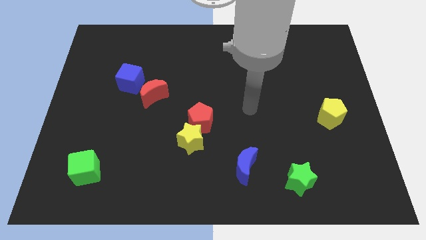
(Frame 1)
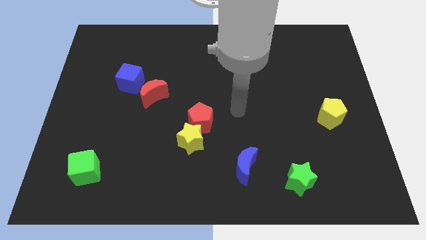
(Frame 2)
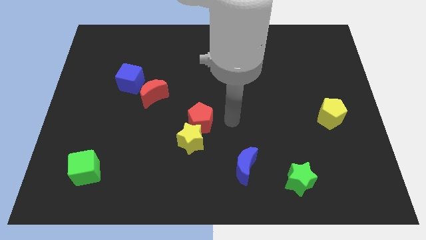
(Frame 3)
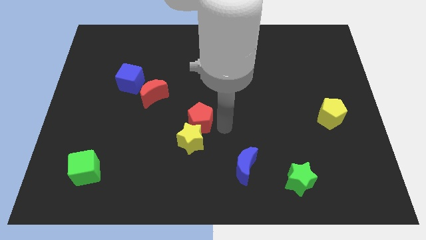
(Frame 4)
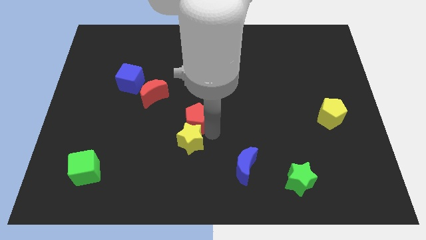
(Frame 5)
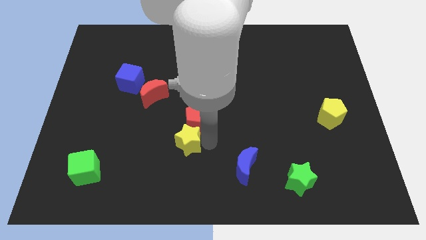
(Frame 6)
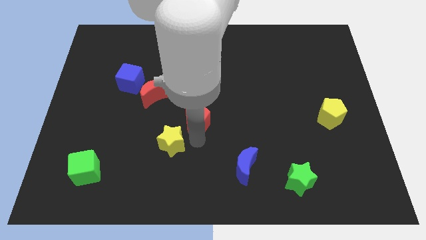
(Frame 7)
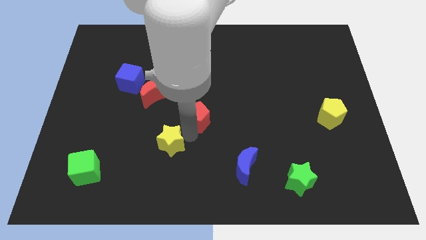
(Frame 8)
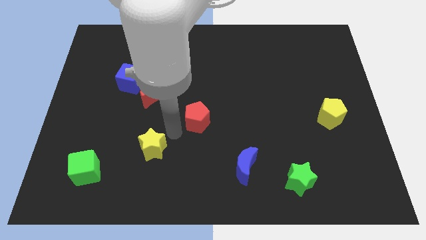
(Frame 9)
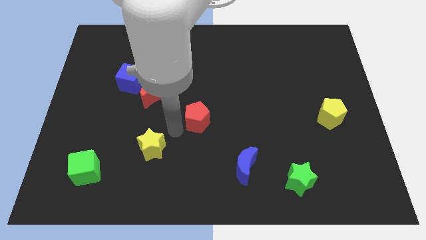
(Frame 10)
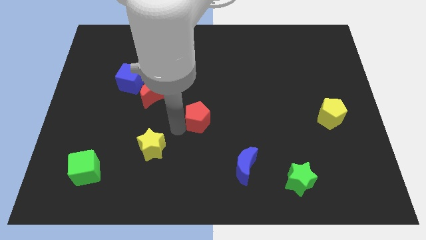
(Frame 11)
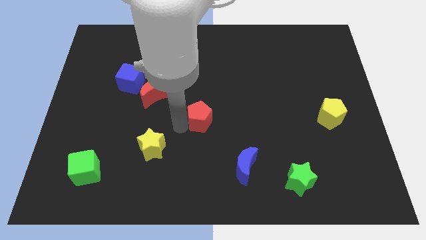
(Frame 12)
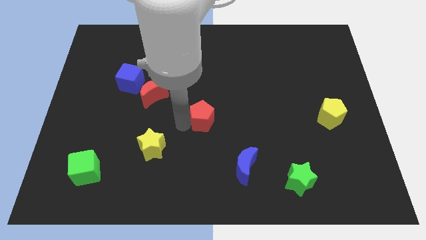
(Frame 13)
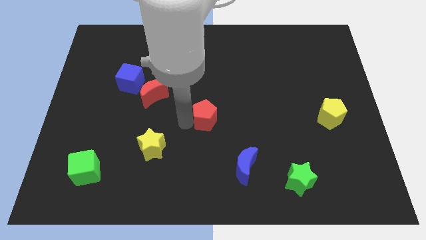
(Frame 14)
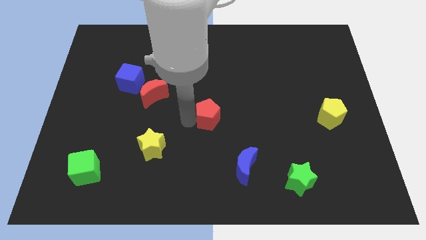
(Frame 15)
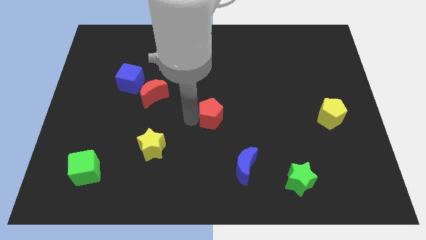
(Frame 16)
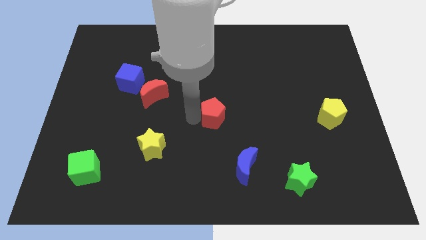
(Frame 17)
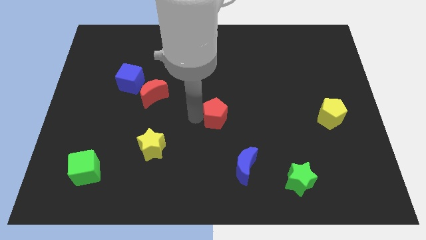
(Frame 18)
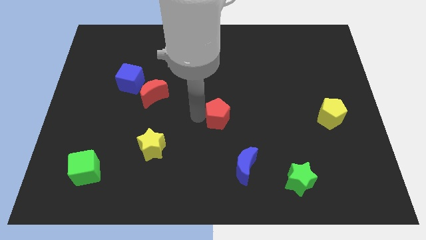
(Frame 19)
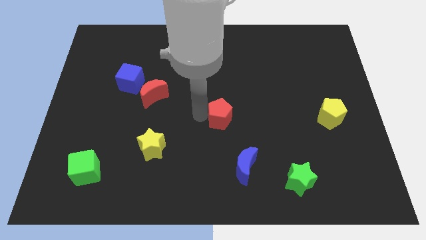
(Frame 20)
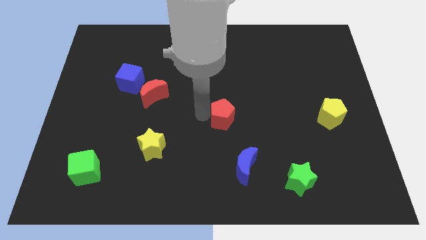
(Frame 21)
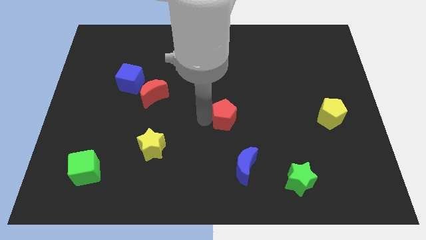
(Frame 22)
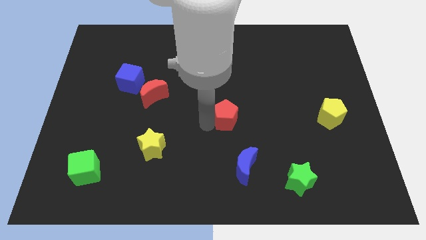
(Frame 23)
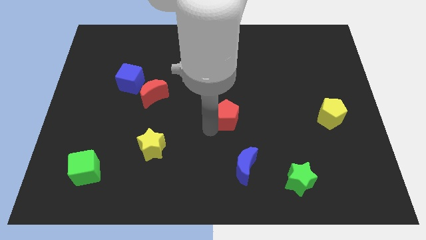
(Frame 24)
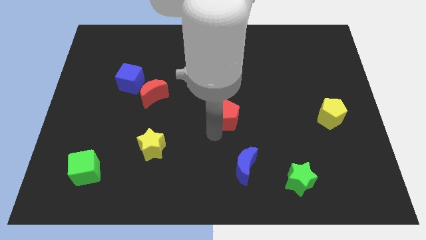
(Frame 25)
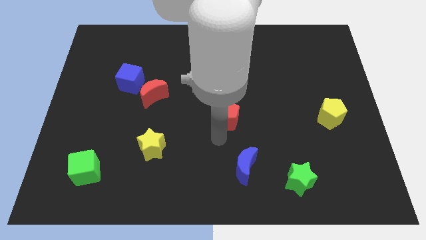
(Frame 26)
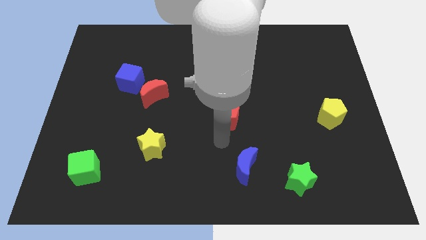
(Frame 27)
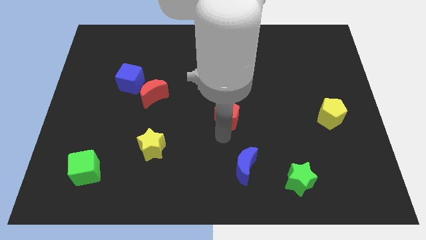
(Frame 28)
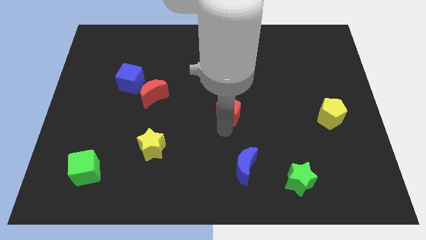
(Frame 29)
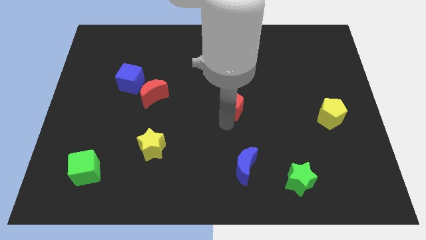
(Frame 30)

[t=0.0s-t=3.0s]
slide the red pentagon upwards and then to the right slightly

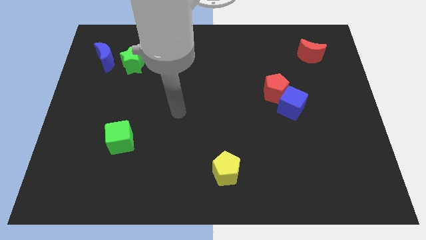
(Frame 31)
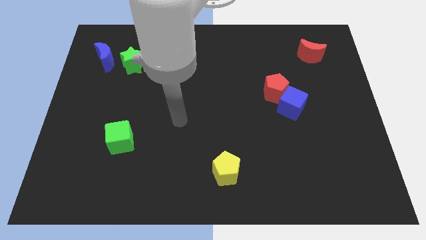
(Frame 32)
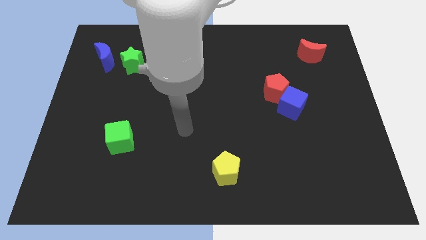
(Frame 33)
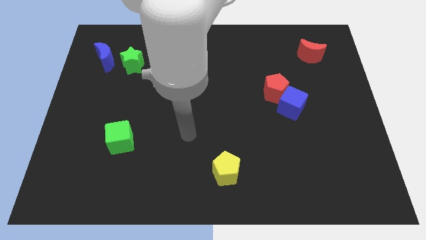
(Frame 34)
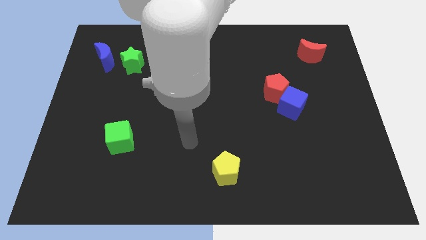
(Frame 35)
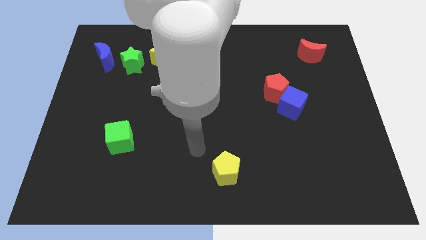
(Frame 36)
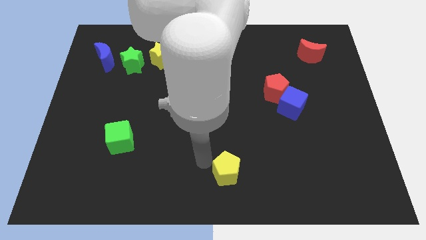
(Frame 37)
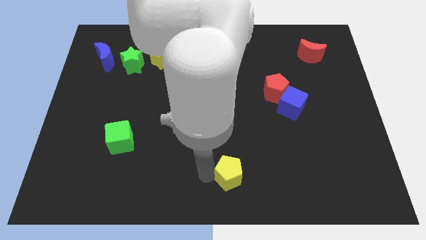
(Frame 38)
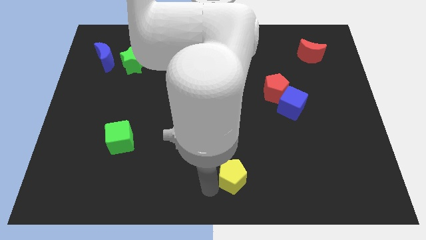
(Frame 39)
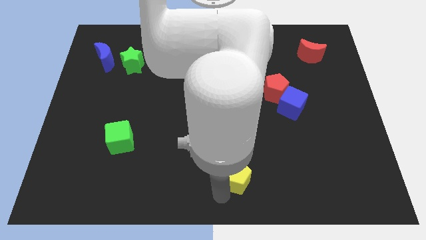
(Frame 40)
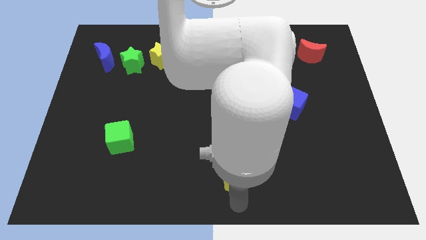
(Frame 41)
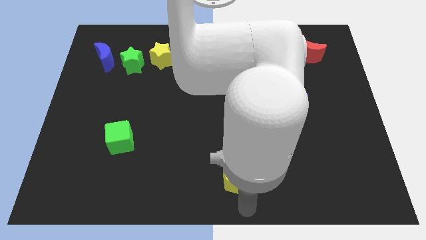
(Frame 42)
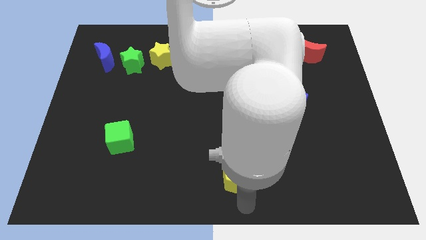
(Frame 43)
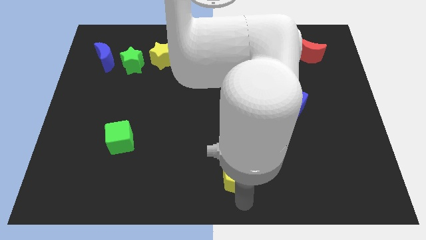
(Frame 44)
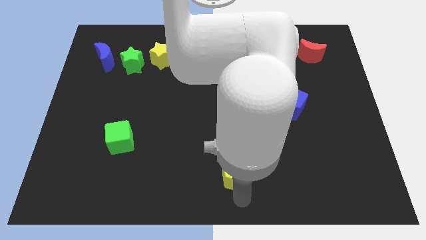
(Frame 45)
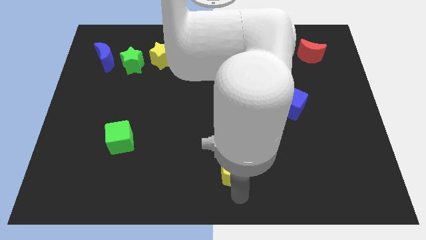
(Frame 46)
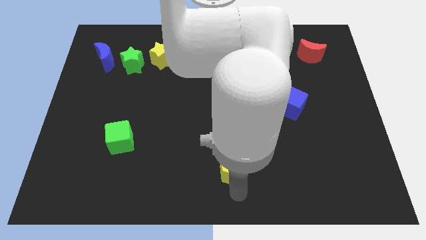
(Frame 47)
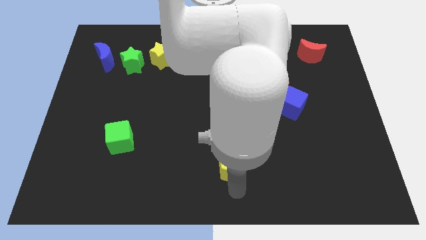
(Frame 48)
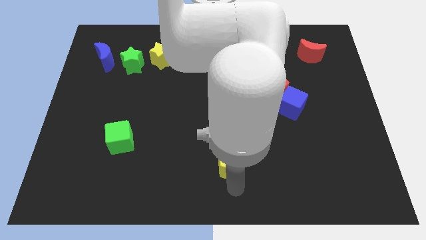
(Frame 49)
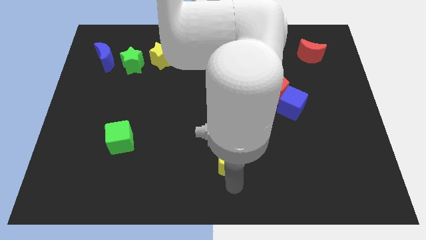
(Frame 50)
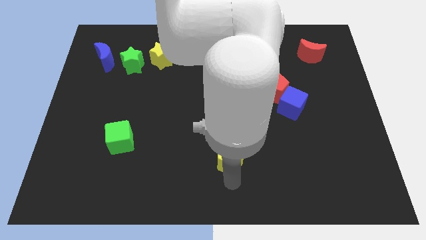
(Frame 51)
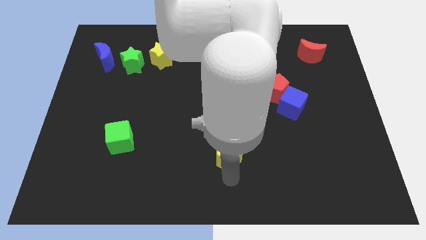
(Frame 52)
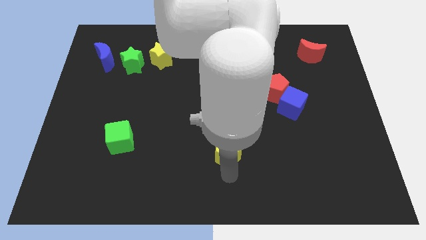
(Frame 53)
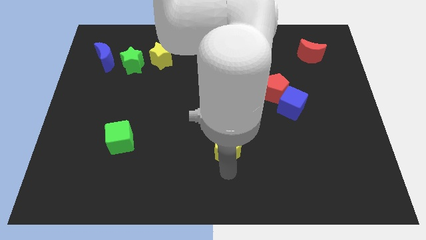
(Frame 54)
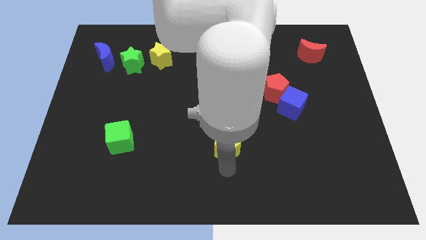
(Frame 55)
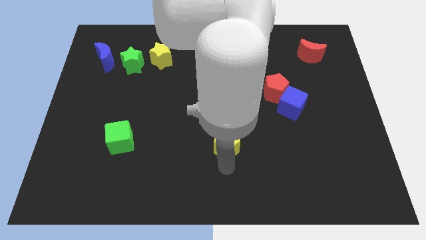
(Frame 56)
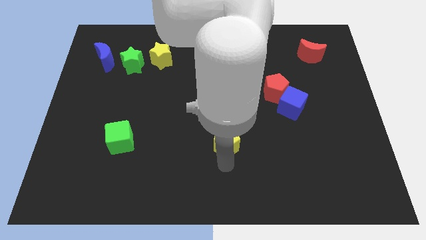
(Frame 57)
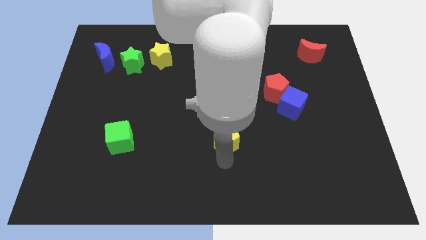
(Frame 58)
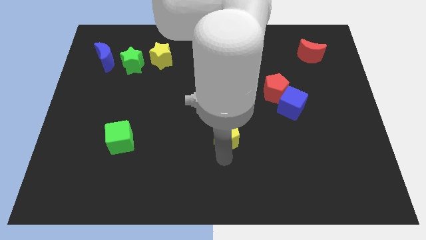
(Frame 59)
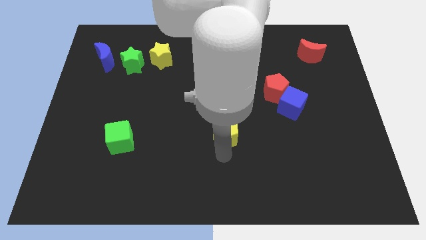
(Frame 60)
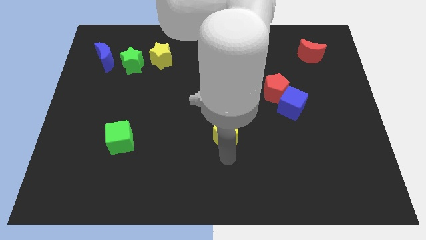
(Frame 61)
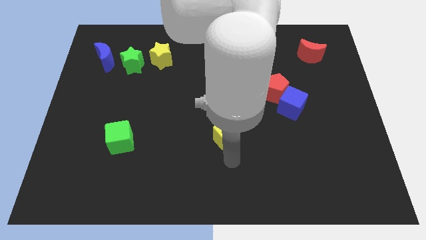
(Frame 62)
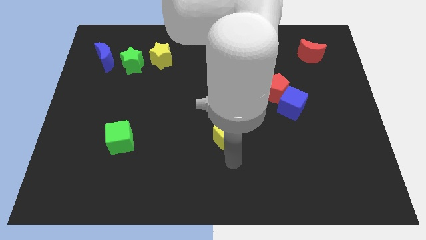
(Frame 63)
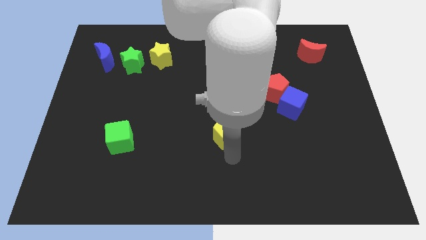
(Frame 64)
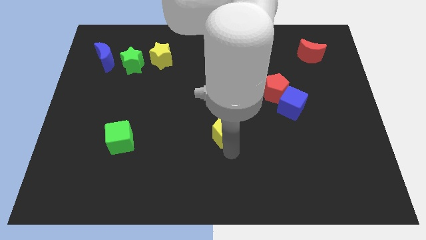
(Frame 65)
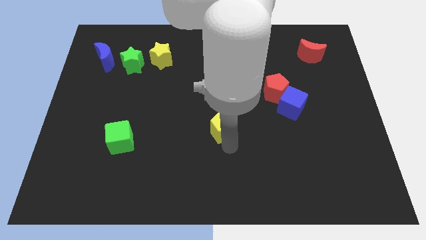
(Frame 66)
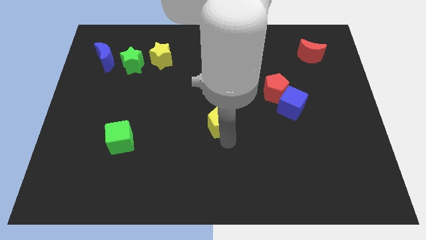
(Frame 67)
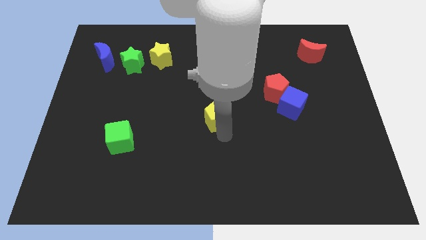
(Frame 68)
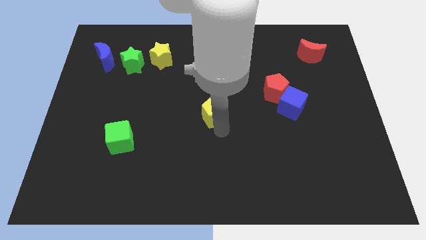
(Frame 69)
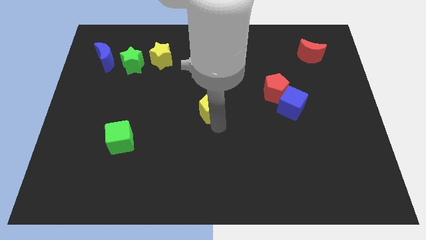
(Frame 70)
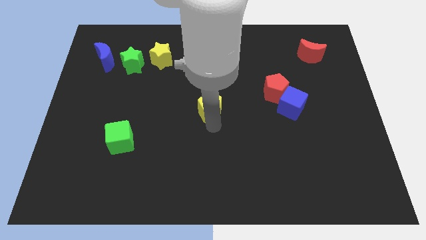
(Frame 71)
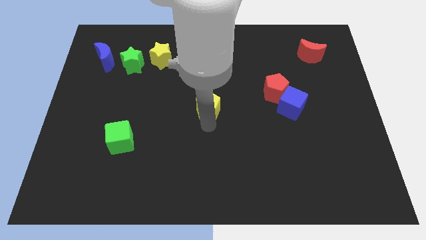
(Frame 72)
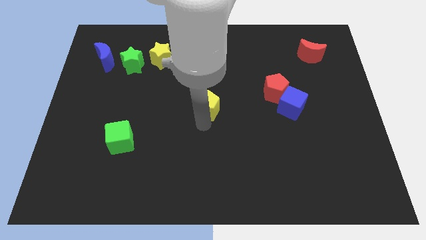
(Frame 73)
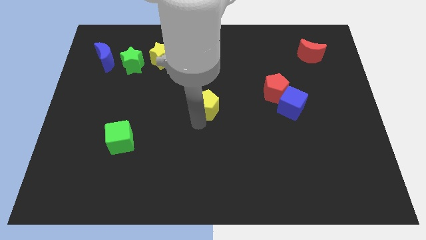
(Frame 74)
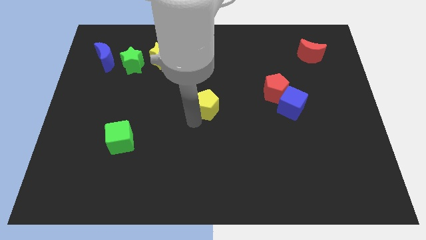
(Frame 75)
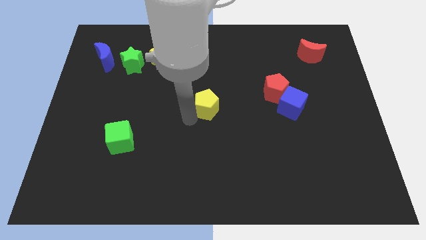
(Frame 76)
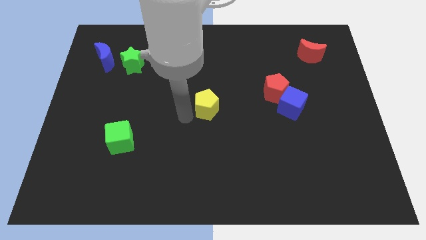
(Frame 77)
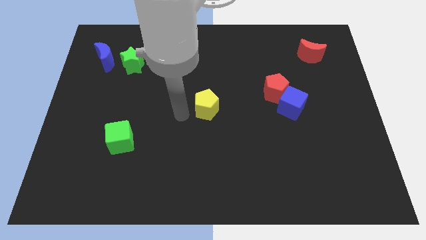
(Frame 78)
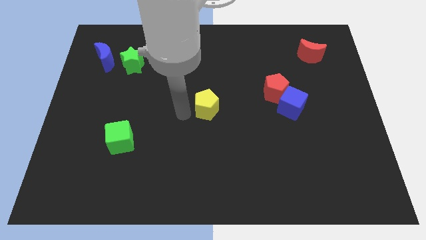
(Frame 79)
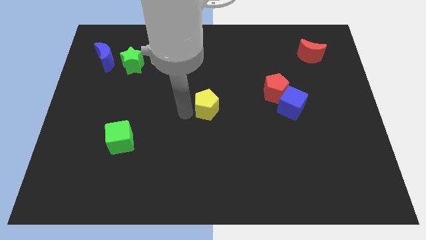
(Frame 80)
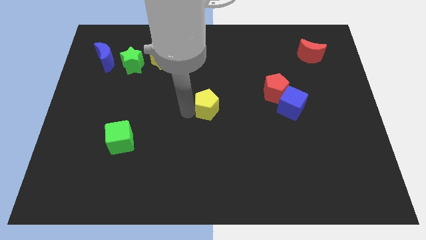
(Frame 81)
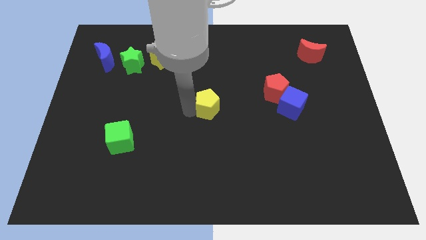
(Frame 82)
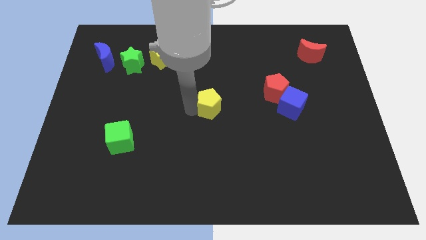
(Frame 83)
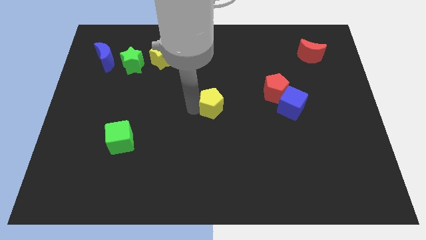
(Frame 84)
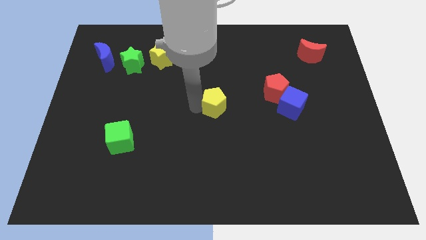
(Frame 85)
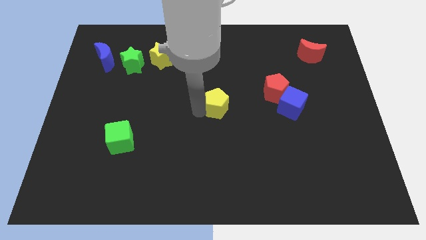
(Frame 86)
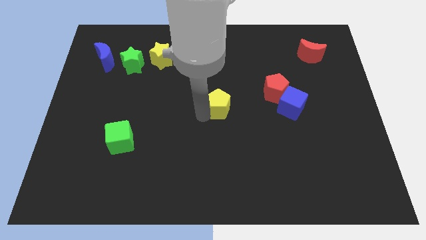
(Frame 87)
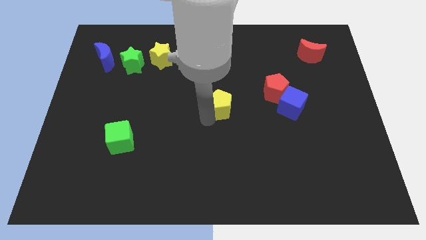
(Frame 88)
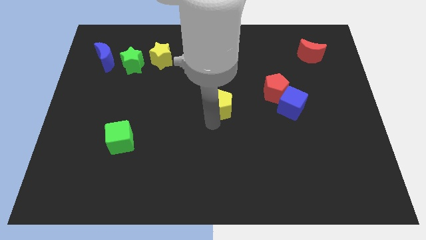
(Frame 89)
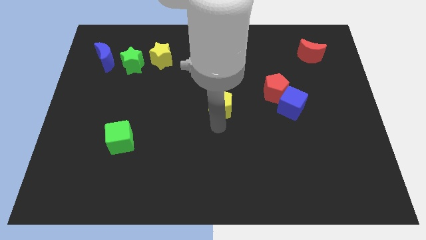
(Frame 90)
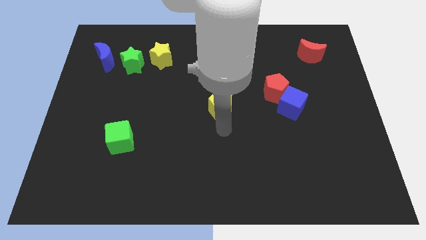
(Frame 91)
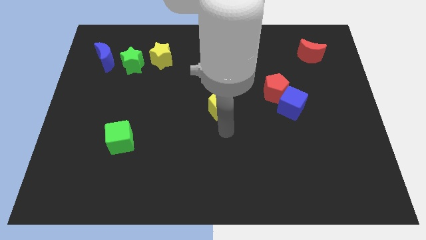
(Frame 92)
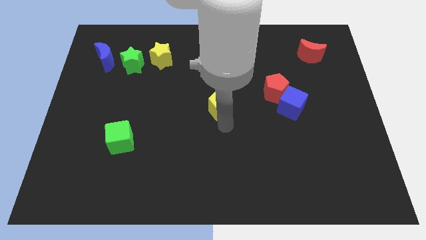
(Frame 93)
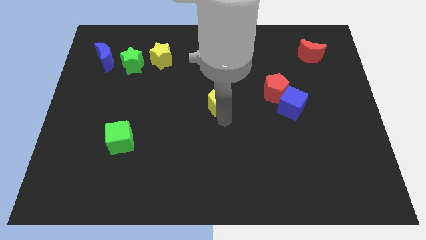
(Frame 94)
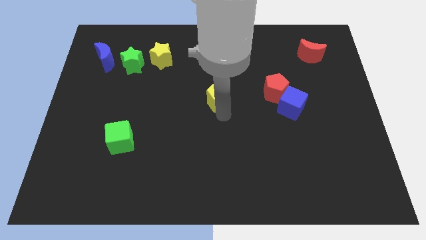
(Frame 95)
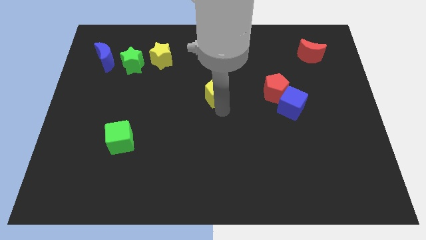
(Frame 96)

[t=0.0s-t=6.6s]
move the yellow pentagon upwards
